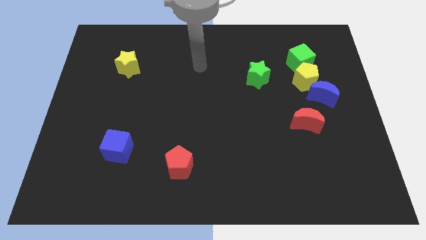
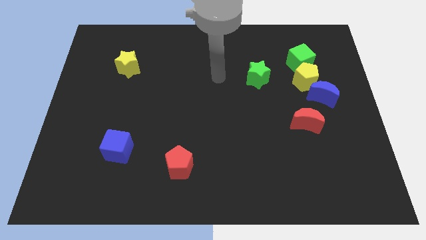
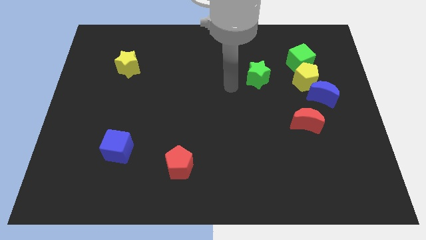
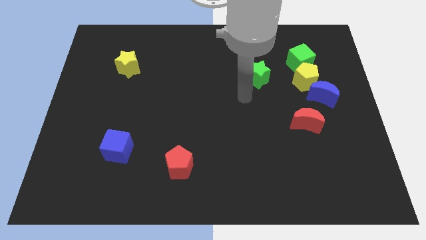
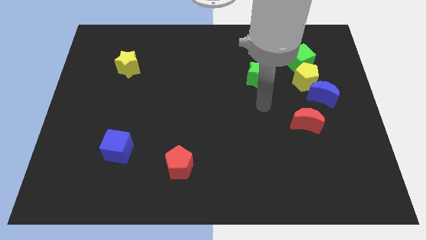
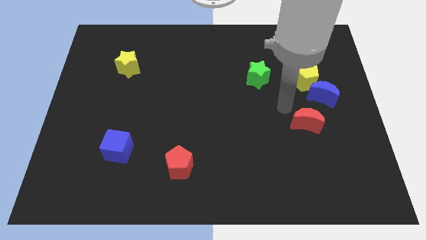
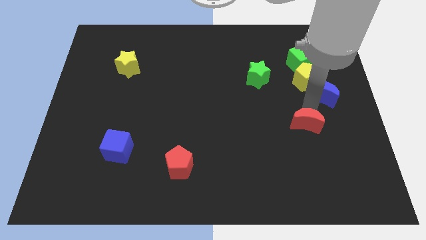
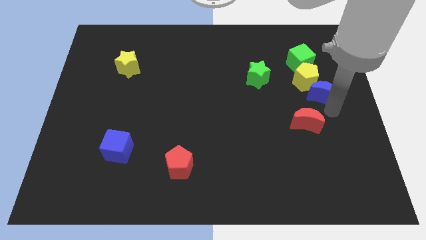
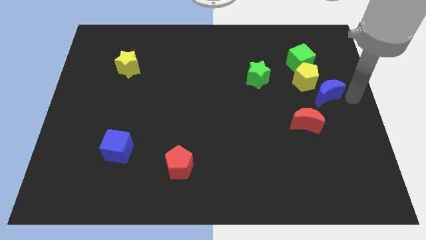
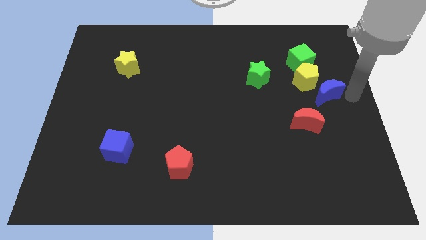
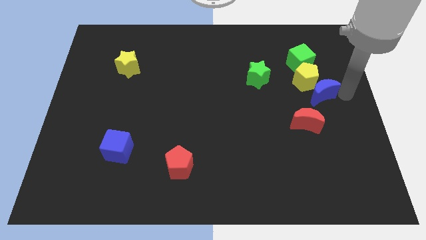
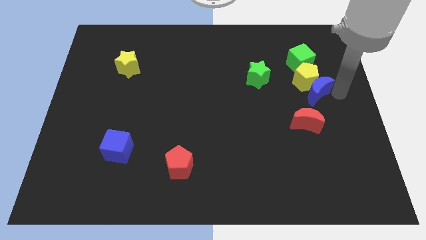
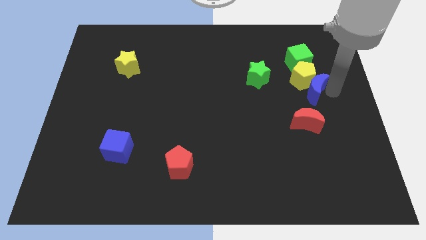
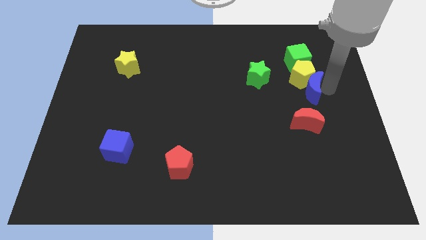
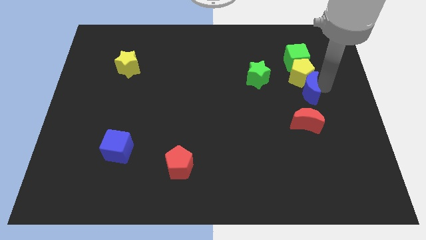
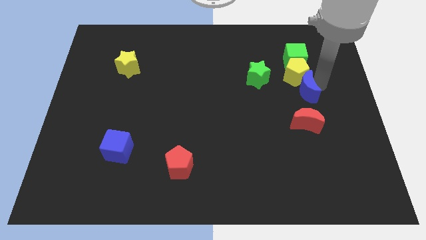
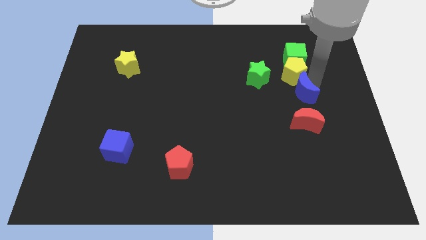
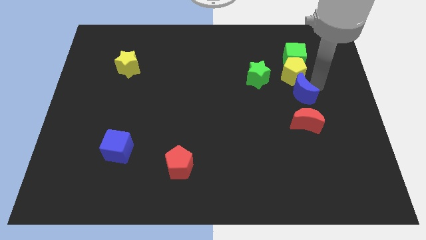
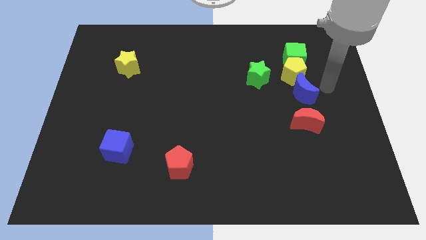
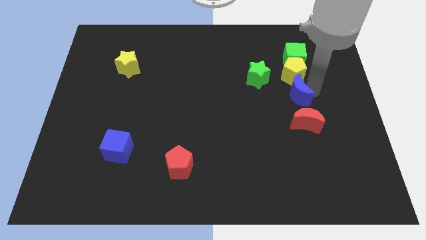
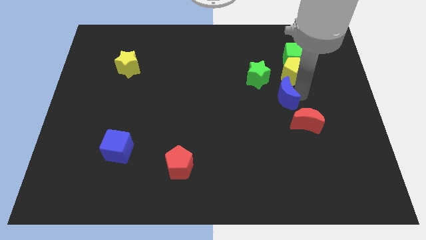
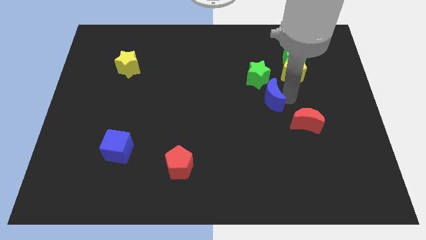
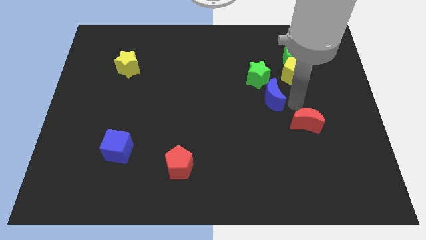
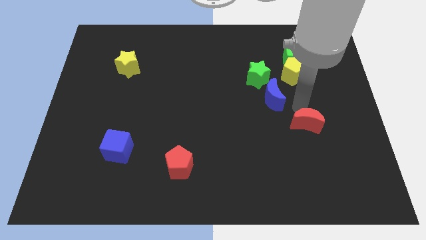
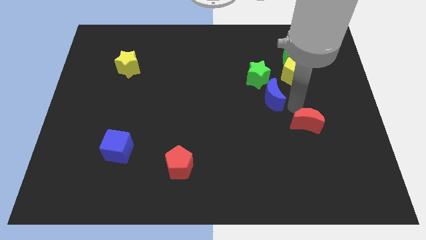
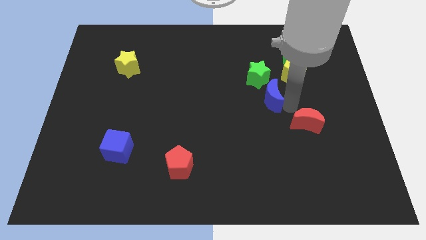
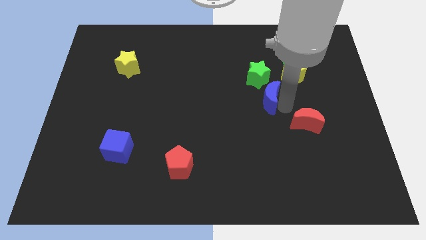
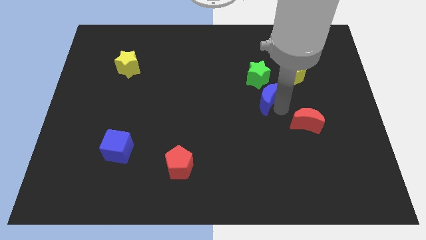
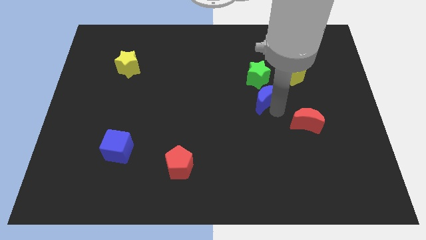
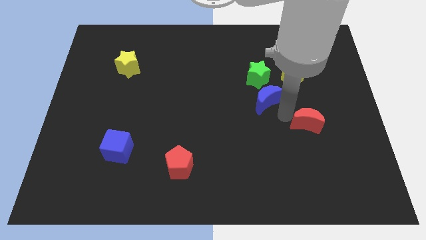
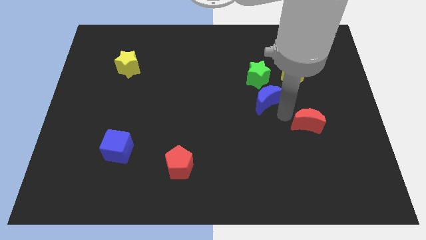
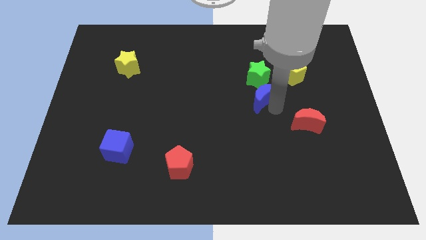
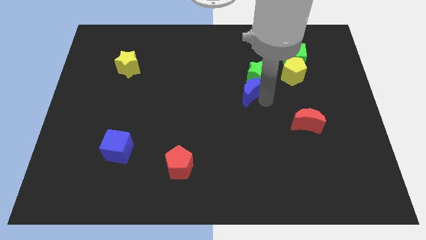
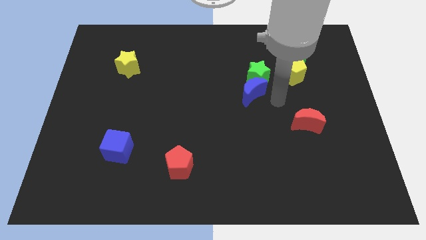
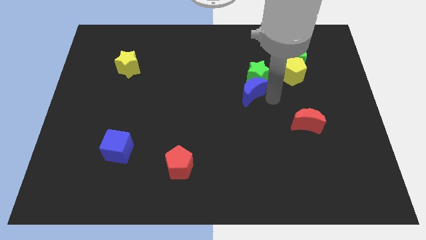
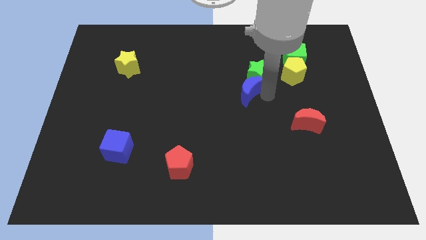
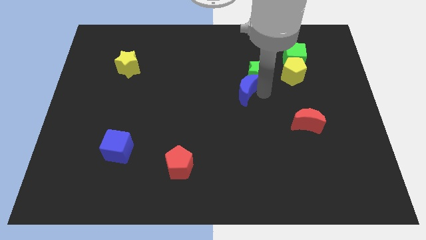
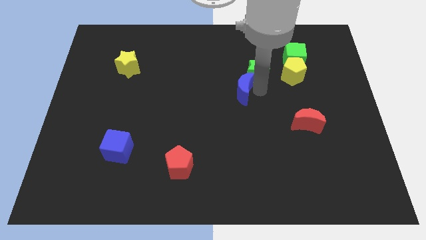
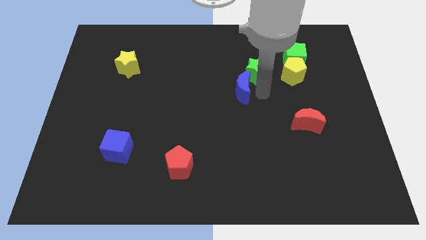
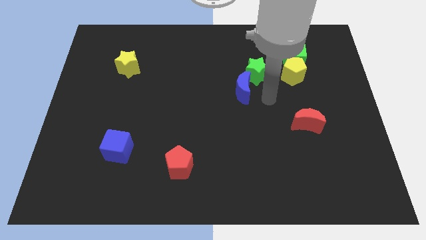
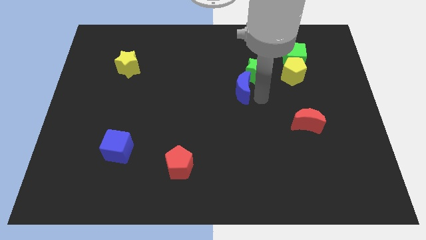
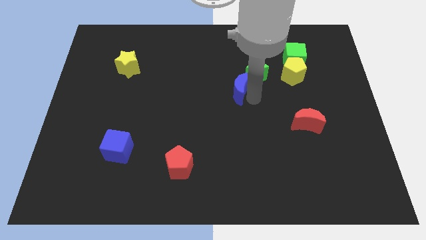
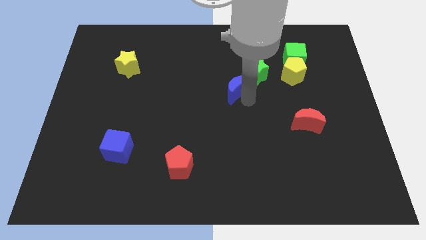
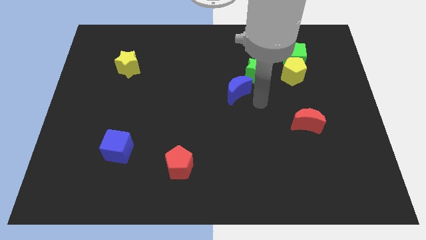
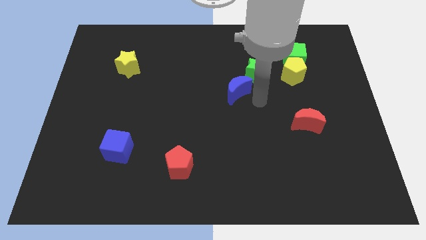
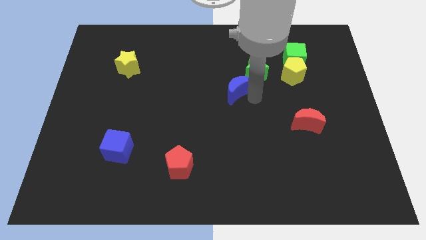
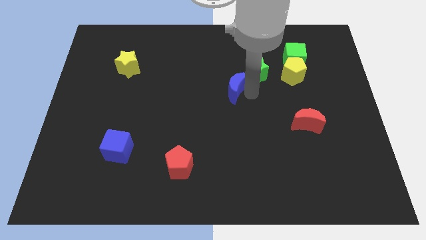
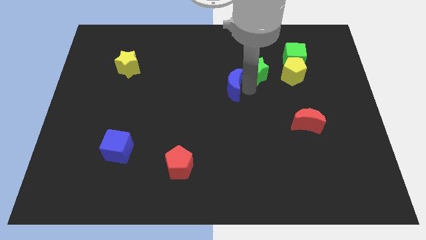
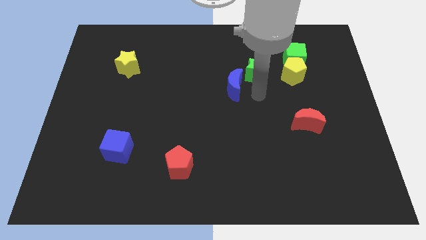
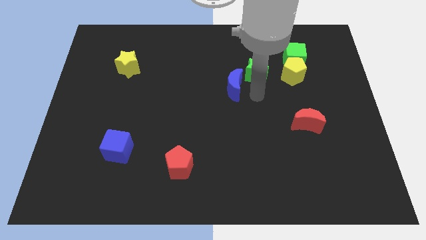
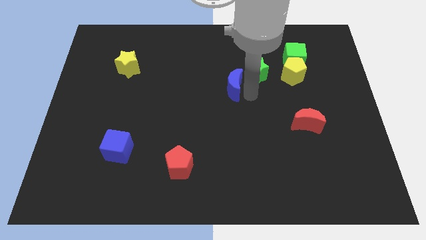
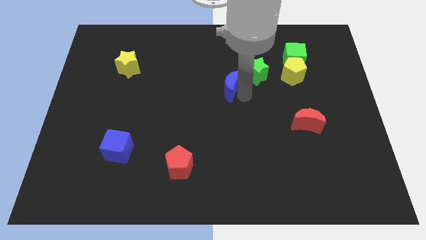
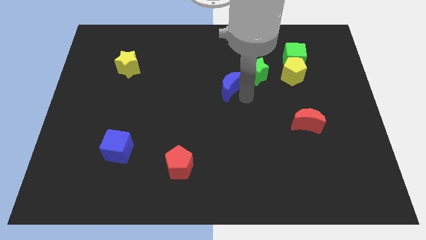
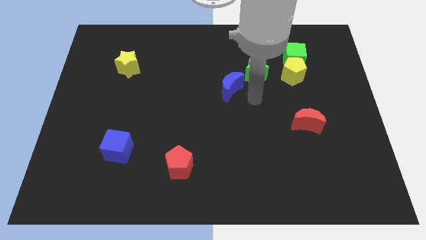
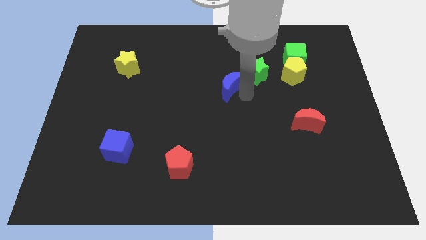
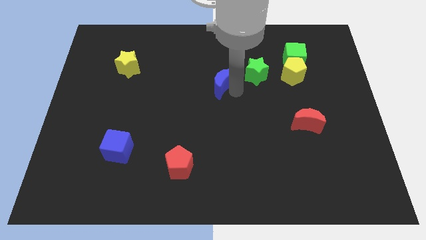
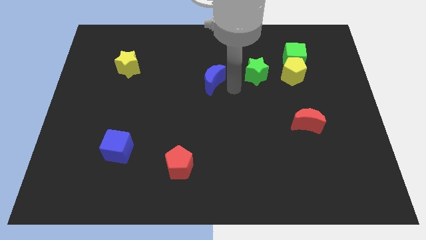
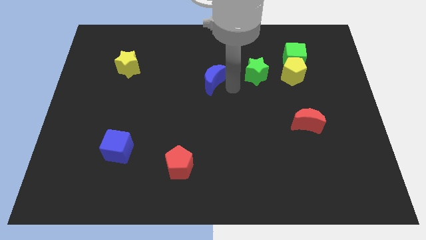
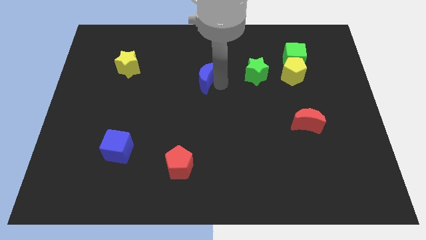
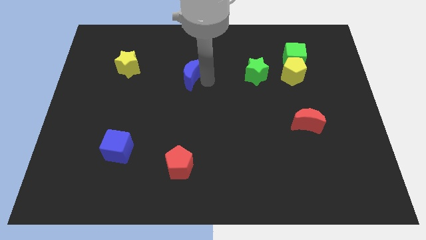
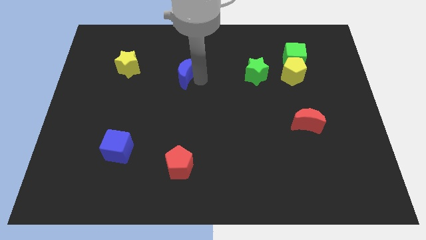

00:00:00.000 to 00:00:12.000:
put the blue moon to the right of the yellow star
